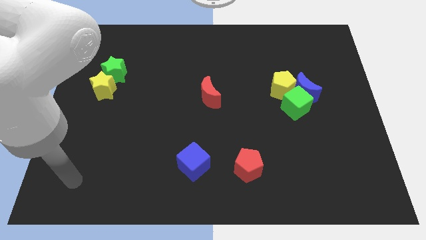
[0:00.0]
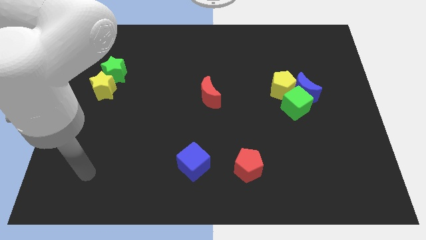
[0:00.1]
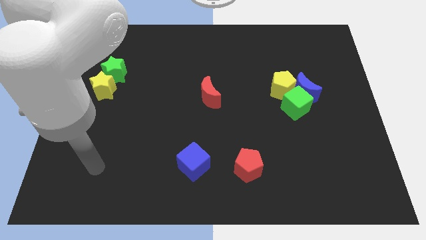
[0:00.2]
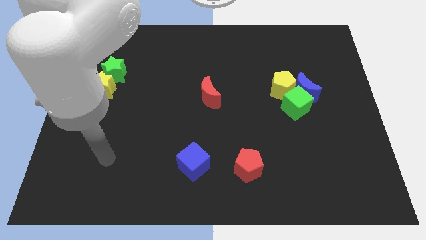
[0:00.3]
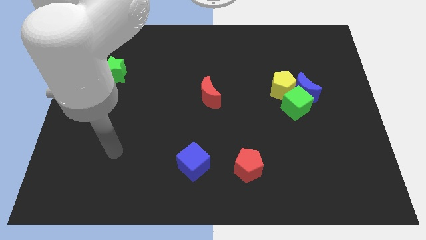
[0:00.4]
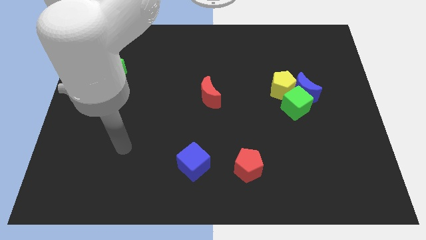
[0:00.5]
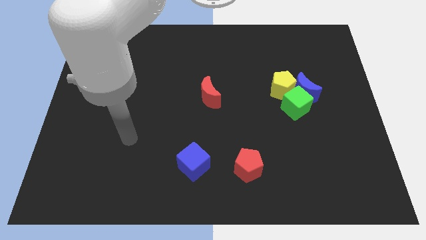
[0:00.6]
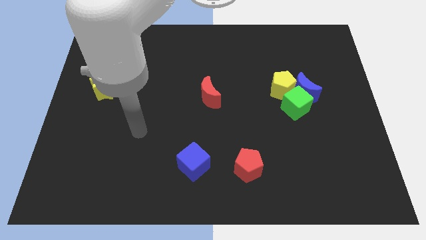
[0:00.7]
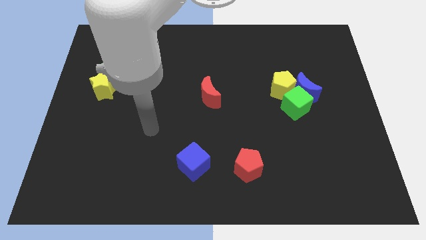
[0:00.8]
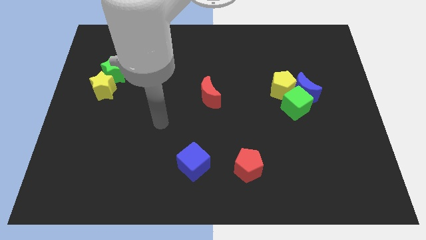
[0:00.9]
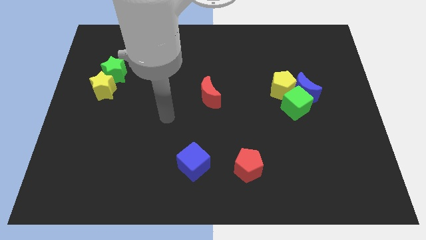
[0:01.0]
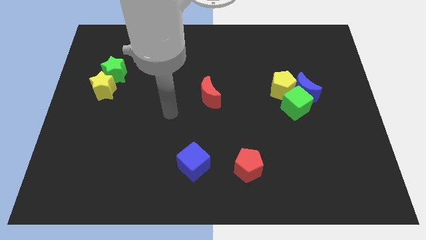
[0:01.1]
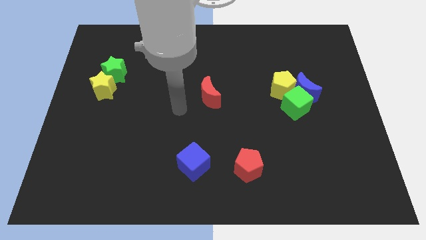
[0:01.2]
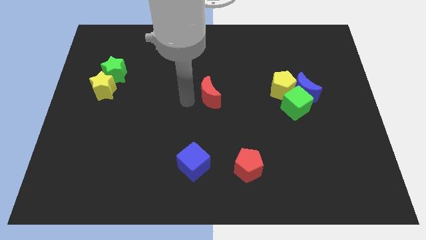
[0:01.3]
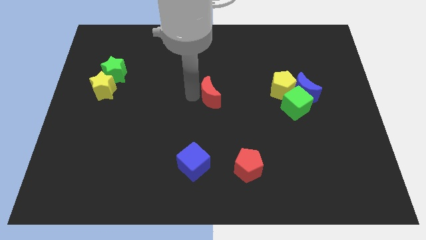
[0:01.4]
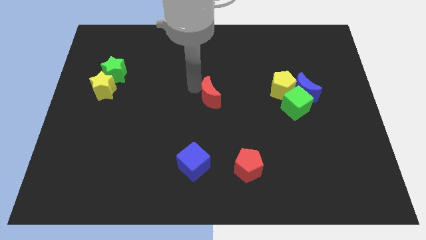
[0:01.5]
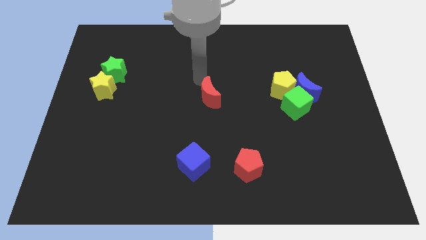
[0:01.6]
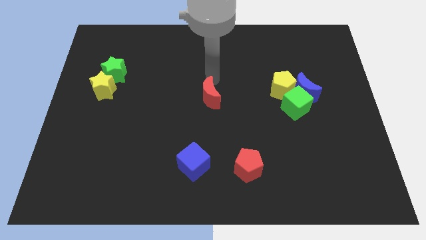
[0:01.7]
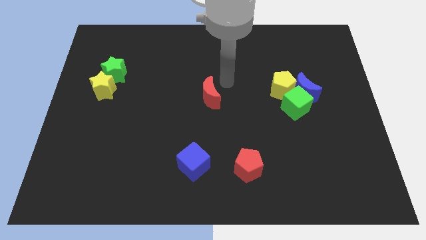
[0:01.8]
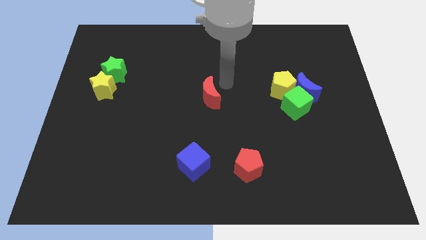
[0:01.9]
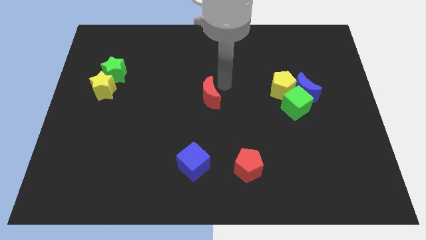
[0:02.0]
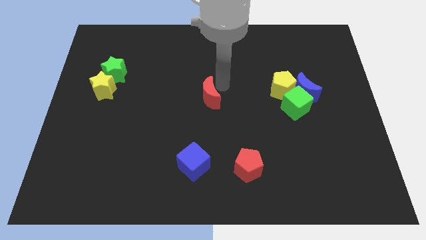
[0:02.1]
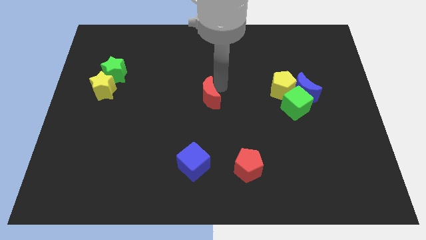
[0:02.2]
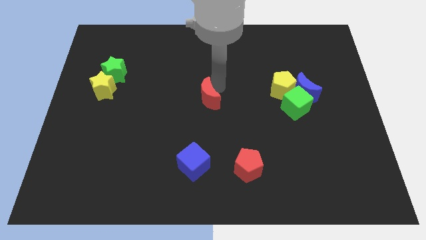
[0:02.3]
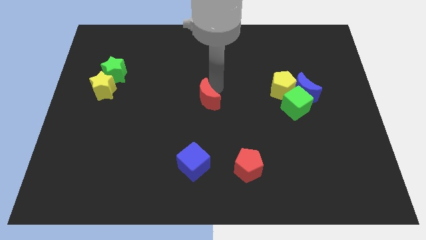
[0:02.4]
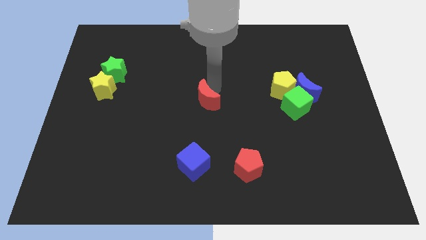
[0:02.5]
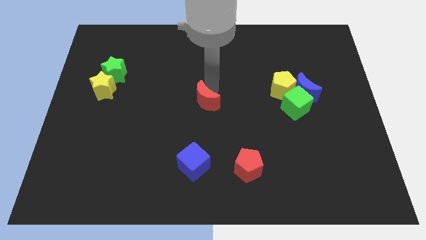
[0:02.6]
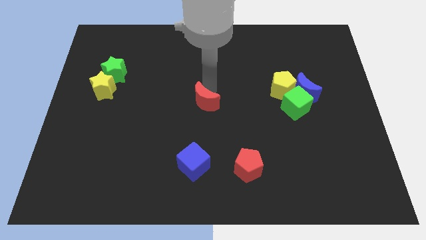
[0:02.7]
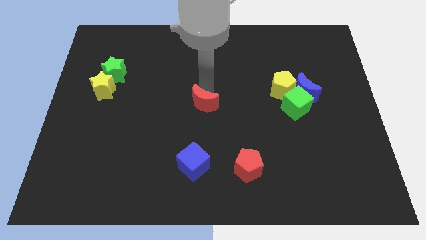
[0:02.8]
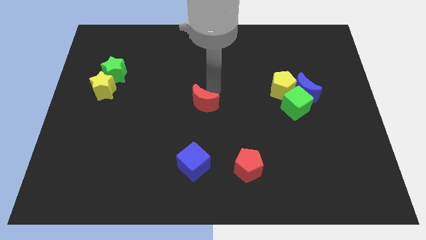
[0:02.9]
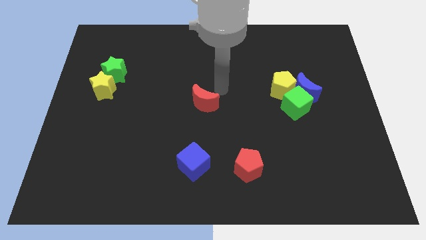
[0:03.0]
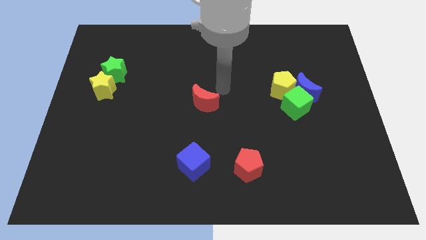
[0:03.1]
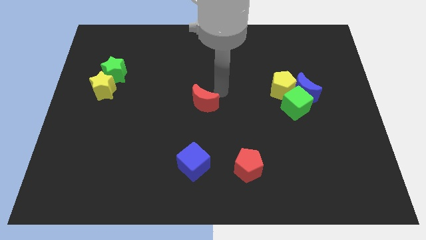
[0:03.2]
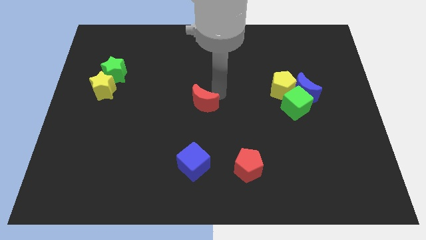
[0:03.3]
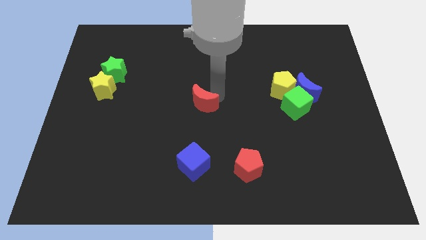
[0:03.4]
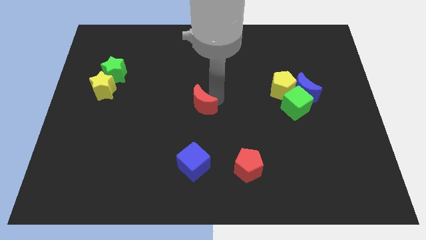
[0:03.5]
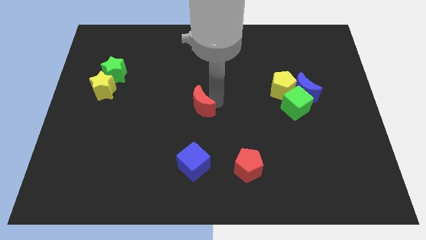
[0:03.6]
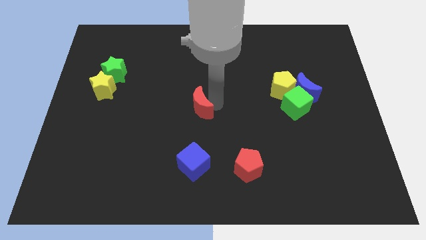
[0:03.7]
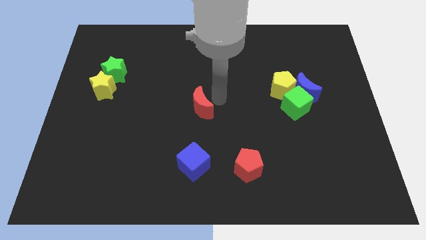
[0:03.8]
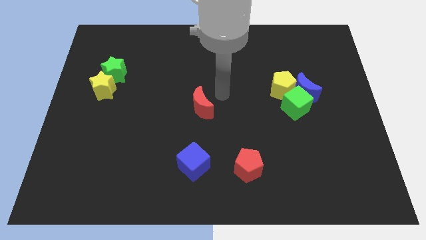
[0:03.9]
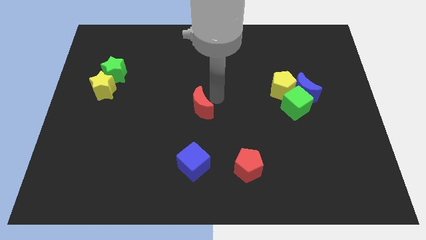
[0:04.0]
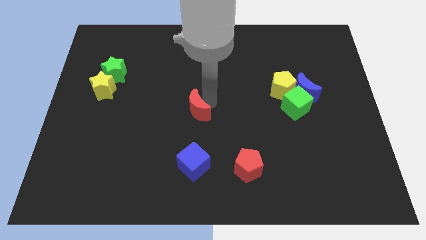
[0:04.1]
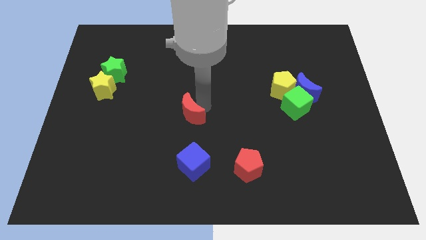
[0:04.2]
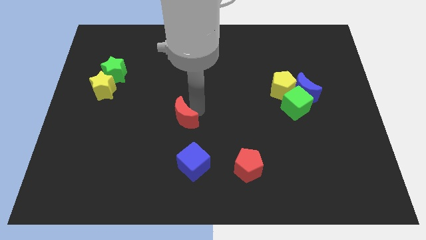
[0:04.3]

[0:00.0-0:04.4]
slightly slide the red moon diagonally downwards and left

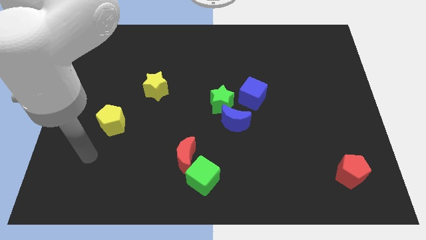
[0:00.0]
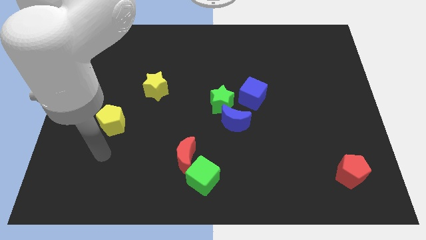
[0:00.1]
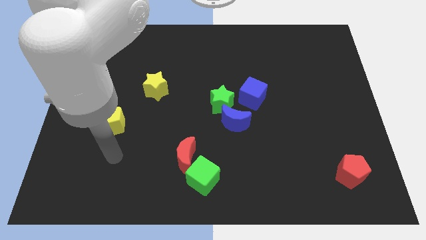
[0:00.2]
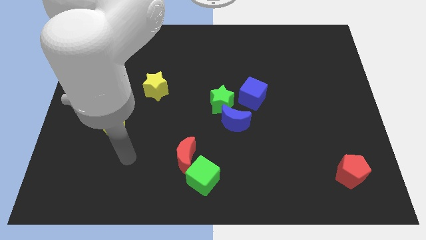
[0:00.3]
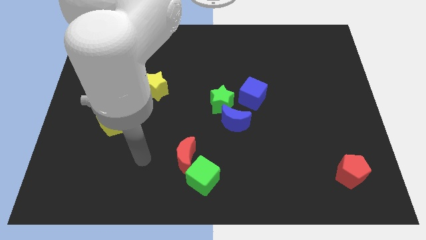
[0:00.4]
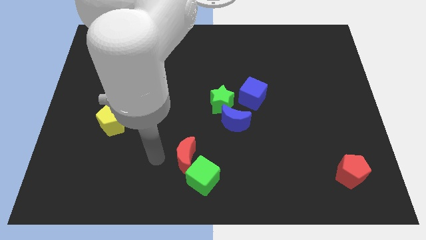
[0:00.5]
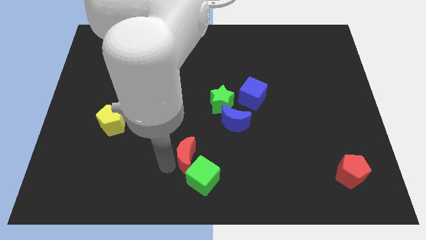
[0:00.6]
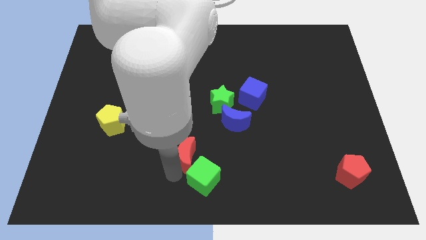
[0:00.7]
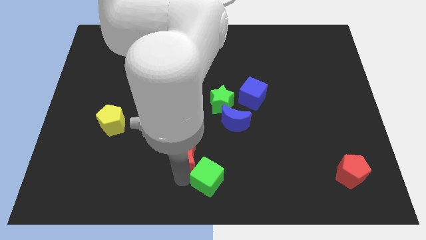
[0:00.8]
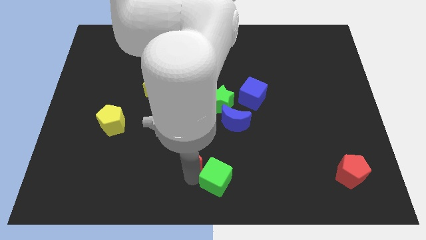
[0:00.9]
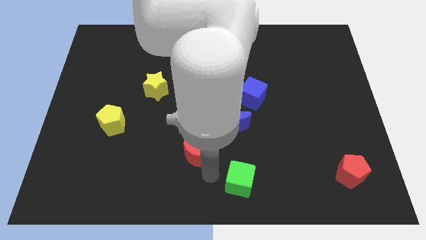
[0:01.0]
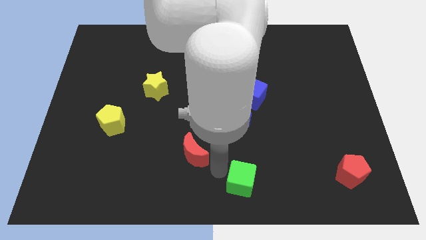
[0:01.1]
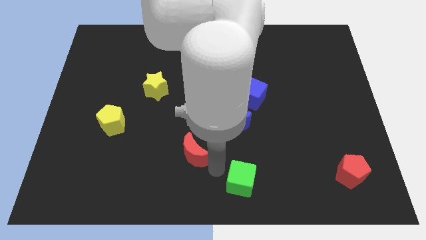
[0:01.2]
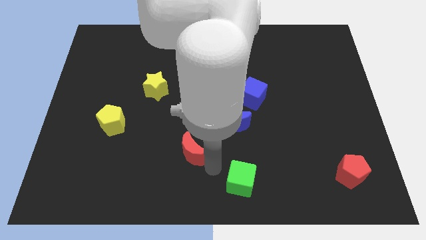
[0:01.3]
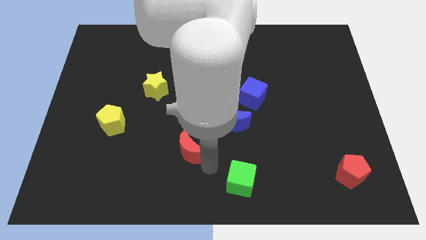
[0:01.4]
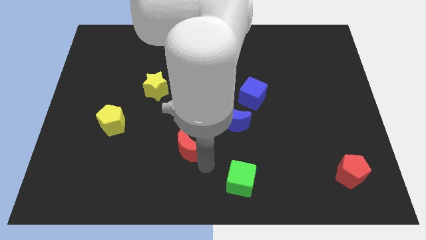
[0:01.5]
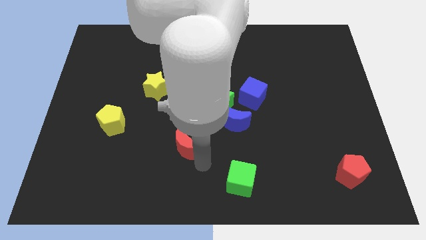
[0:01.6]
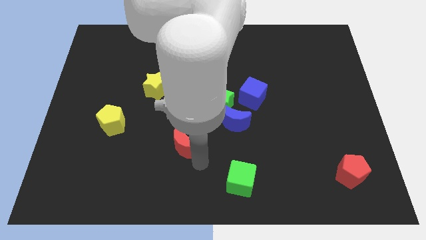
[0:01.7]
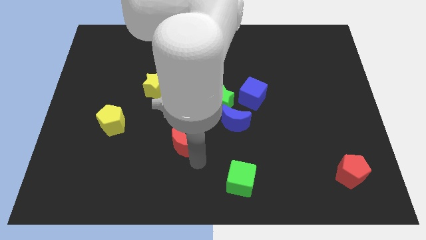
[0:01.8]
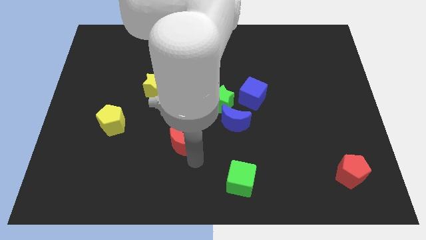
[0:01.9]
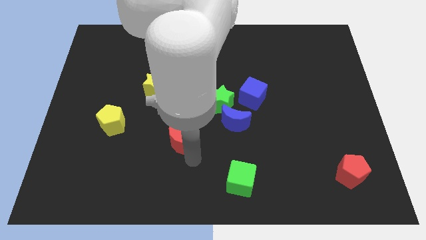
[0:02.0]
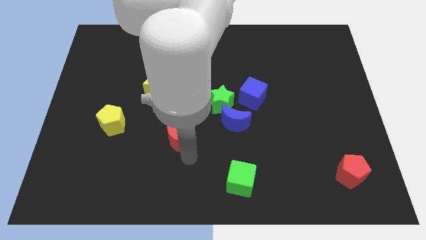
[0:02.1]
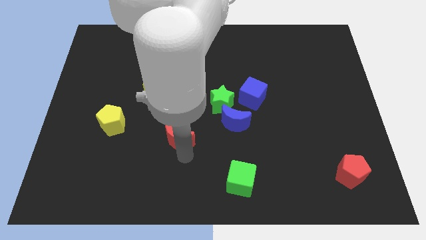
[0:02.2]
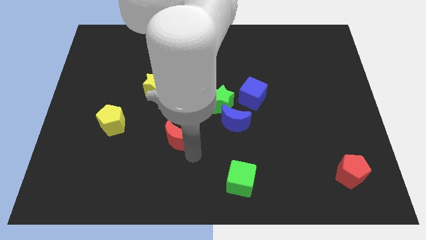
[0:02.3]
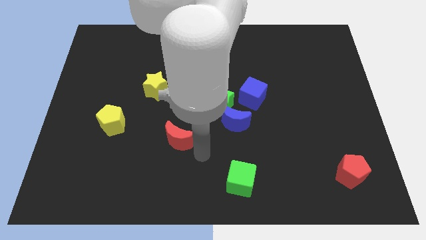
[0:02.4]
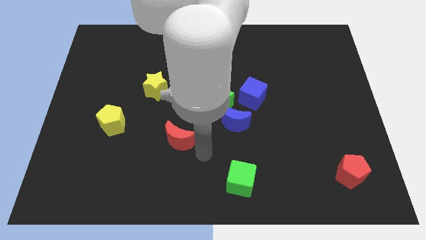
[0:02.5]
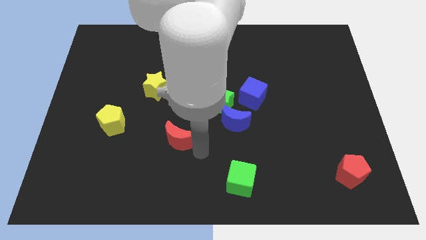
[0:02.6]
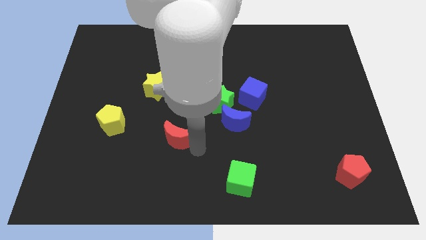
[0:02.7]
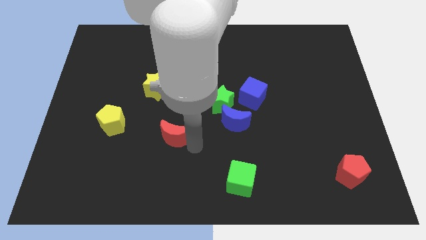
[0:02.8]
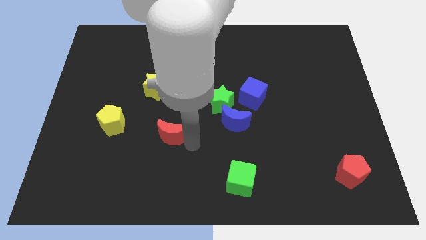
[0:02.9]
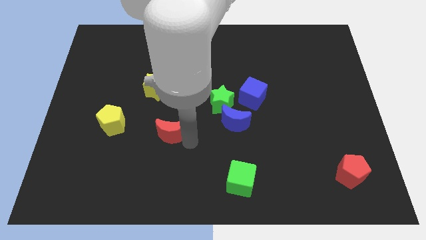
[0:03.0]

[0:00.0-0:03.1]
slide the red moon a little bit upwards and to the left diagonally

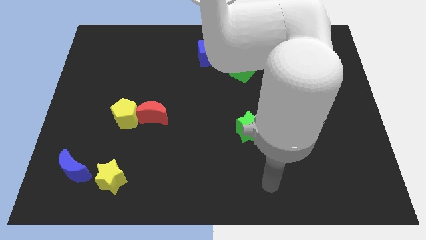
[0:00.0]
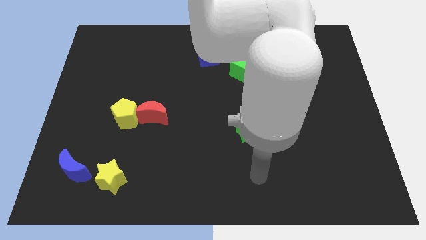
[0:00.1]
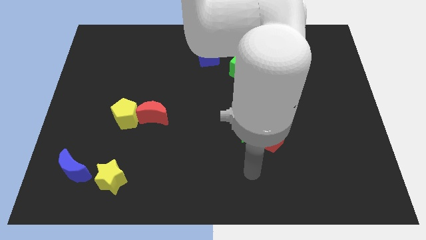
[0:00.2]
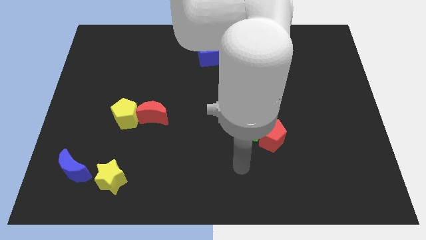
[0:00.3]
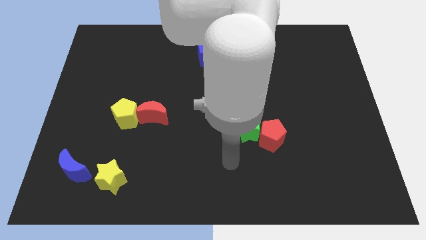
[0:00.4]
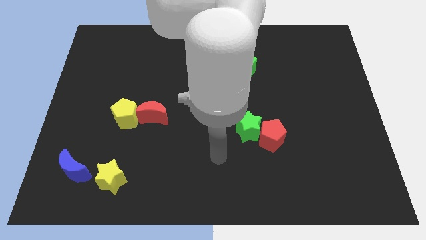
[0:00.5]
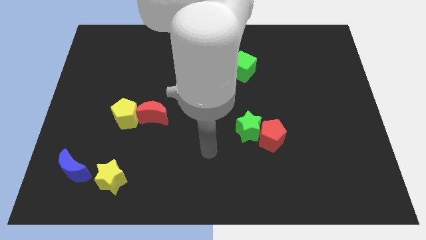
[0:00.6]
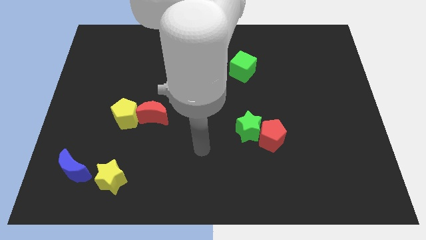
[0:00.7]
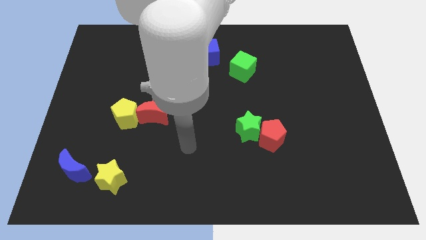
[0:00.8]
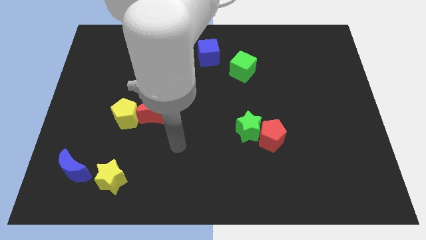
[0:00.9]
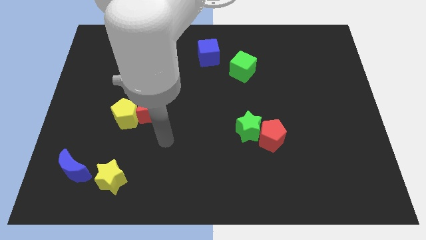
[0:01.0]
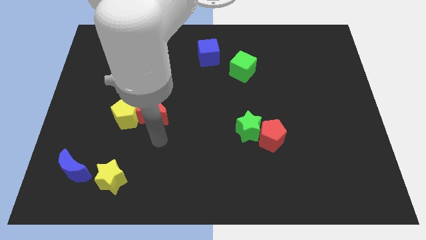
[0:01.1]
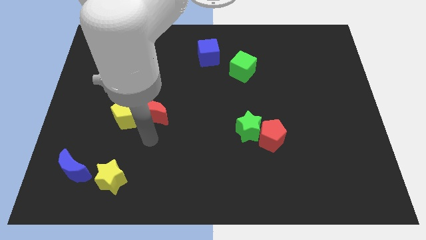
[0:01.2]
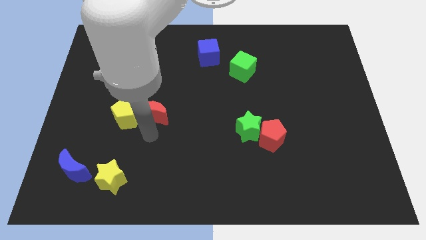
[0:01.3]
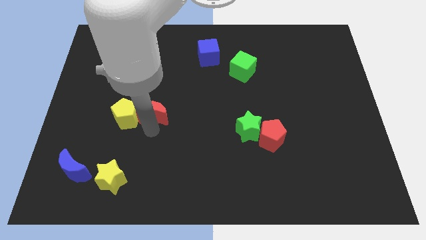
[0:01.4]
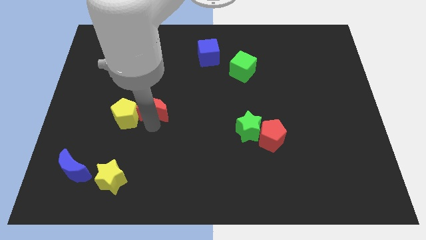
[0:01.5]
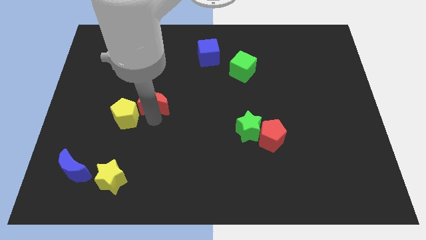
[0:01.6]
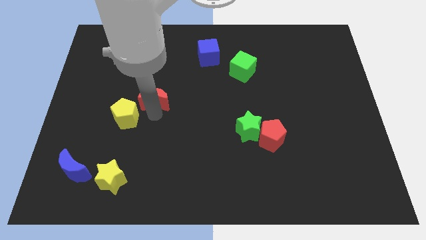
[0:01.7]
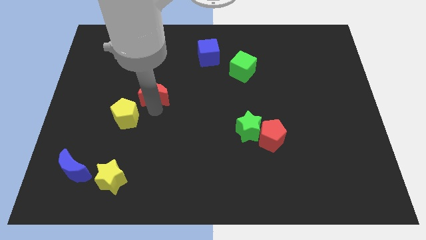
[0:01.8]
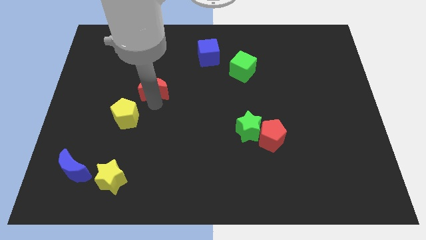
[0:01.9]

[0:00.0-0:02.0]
slightly slide the red moon upwards
